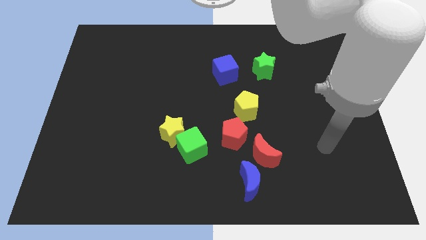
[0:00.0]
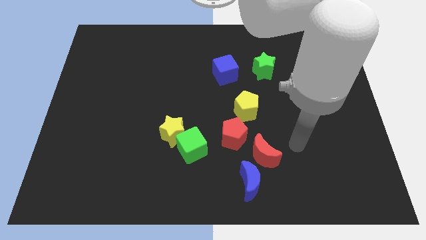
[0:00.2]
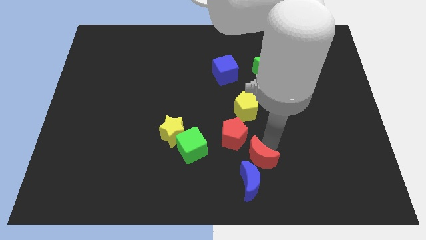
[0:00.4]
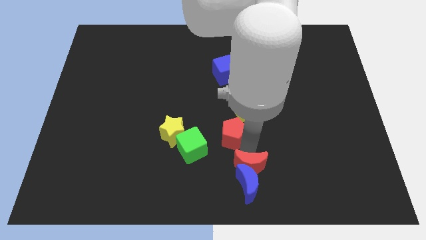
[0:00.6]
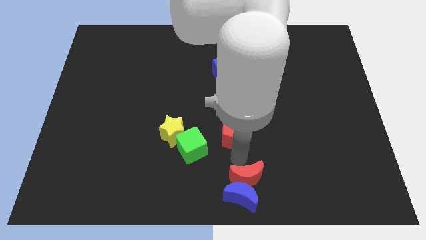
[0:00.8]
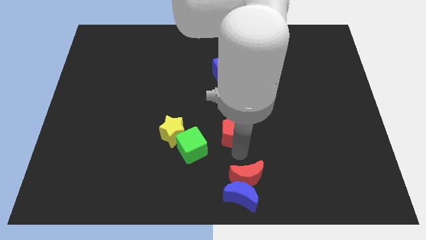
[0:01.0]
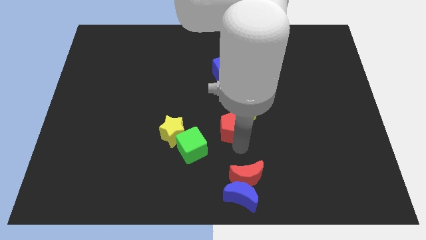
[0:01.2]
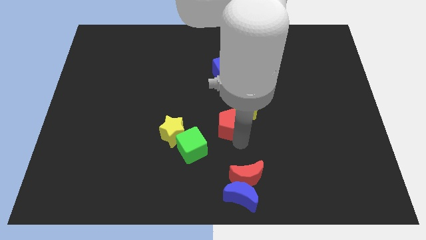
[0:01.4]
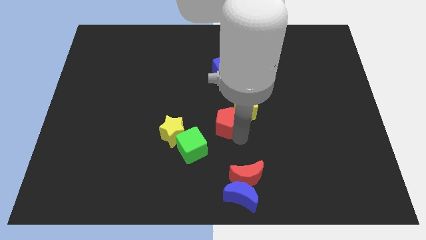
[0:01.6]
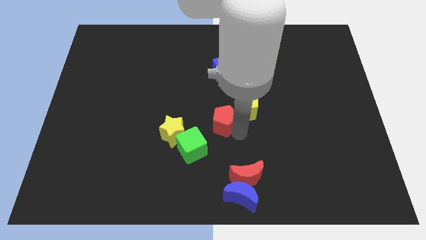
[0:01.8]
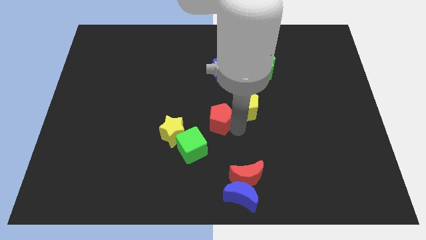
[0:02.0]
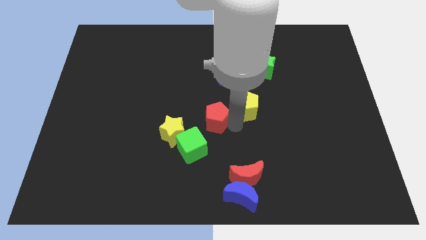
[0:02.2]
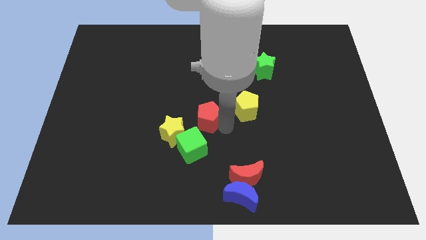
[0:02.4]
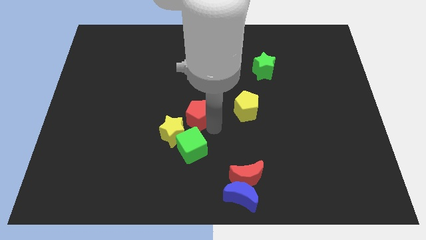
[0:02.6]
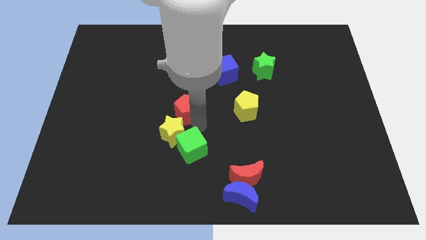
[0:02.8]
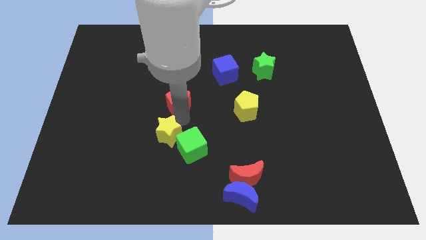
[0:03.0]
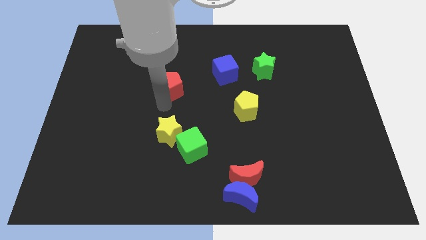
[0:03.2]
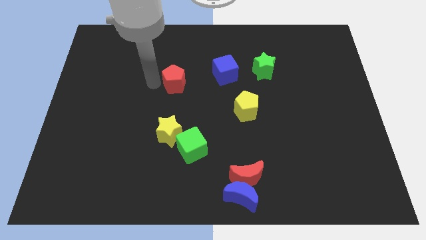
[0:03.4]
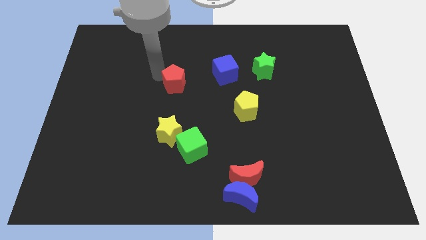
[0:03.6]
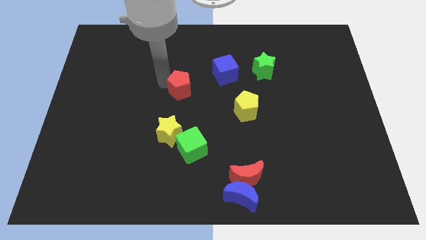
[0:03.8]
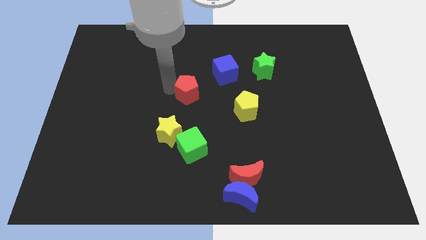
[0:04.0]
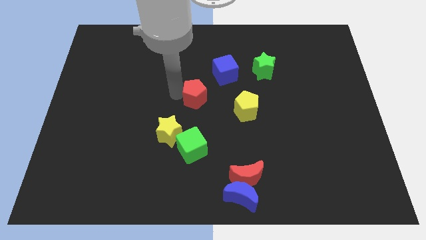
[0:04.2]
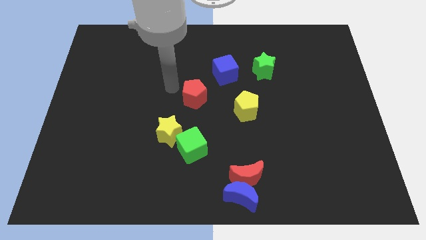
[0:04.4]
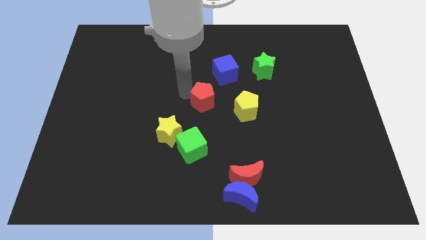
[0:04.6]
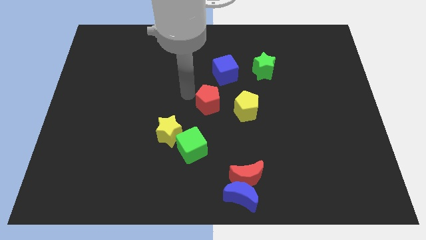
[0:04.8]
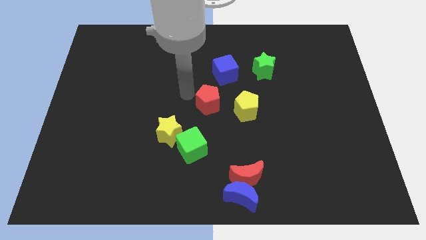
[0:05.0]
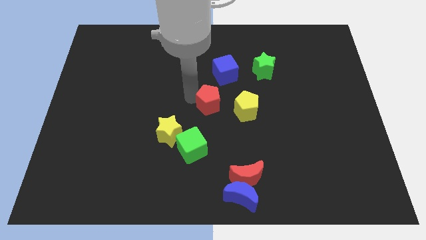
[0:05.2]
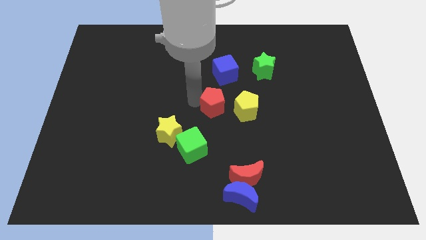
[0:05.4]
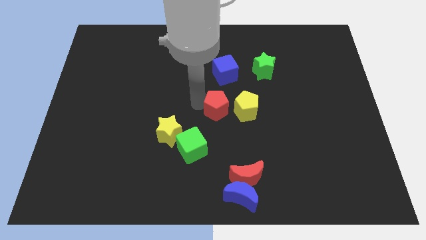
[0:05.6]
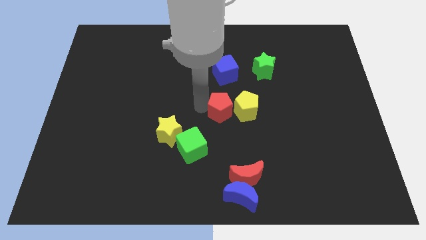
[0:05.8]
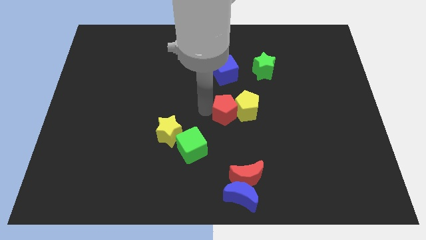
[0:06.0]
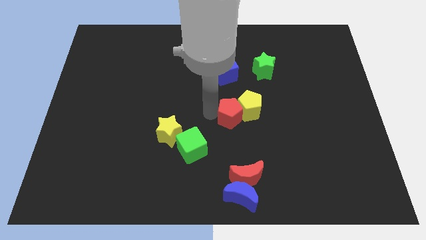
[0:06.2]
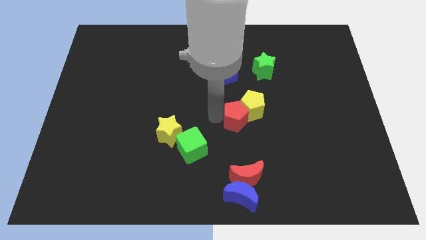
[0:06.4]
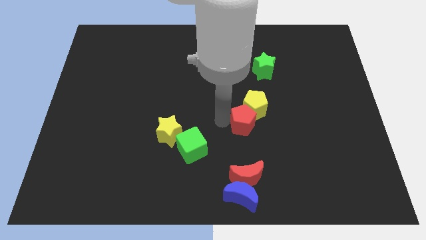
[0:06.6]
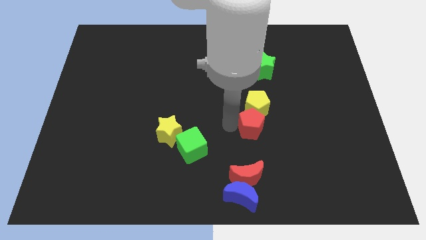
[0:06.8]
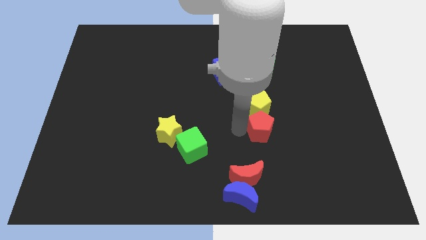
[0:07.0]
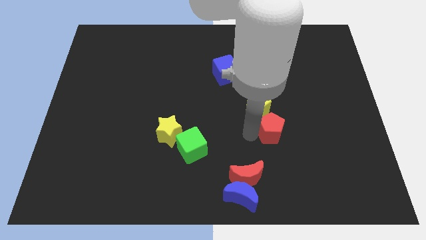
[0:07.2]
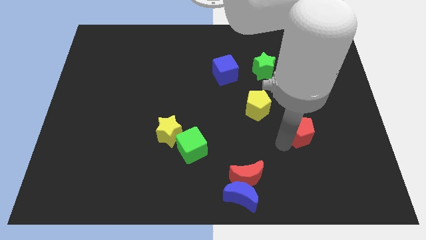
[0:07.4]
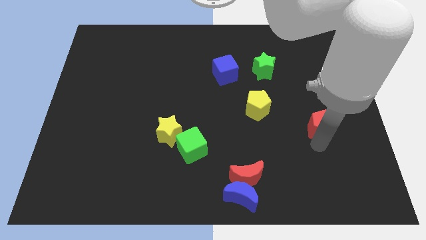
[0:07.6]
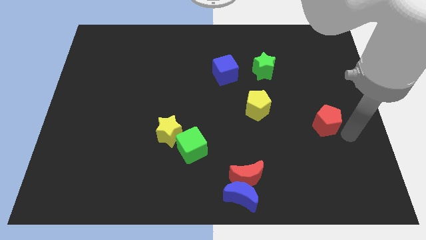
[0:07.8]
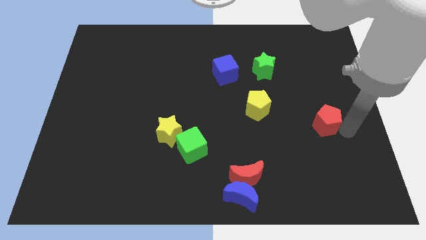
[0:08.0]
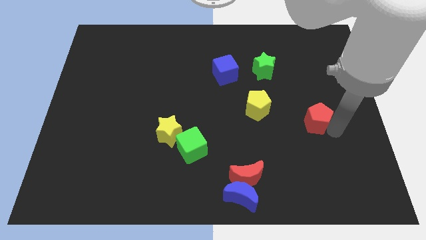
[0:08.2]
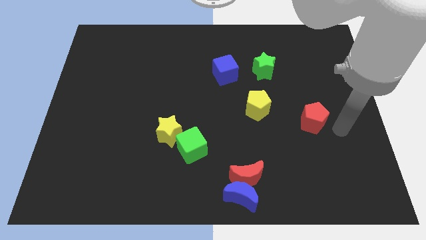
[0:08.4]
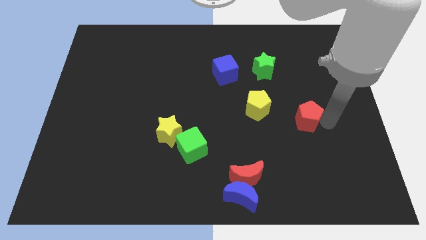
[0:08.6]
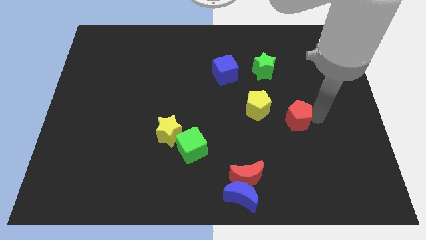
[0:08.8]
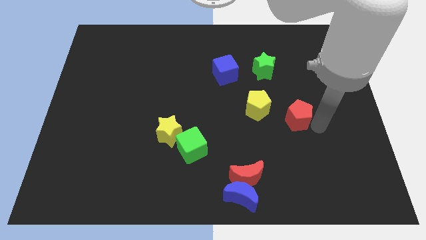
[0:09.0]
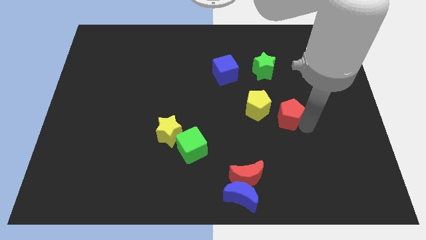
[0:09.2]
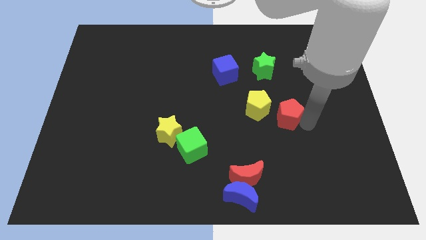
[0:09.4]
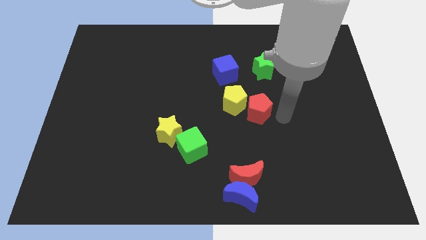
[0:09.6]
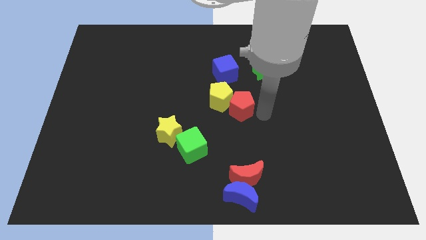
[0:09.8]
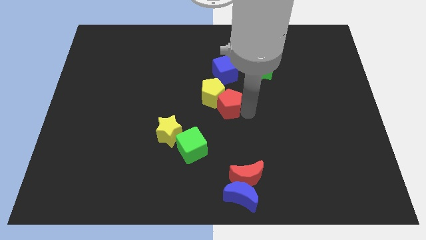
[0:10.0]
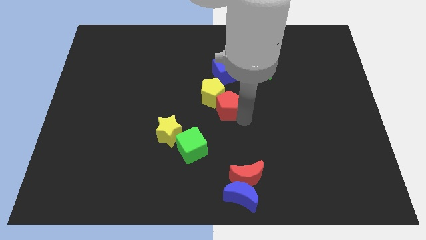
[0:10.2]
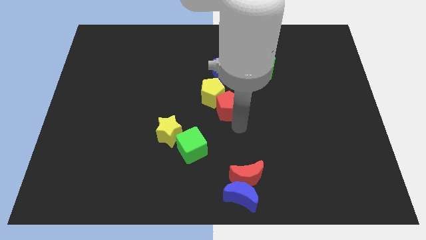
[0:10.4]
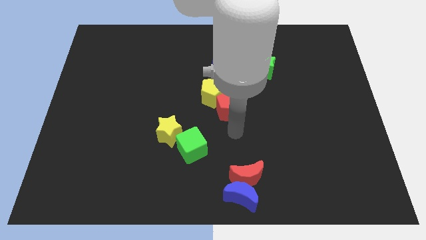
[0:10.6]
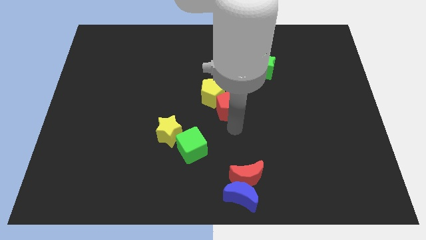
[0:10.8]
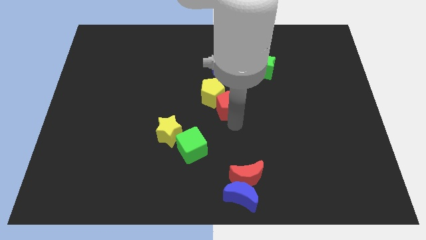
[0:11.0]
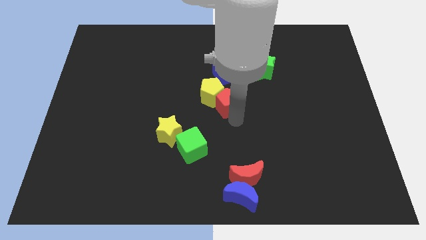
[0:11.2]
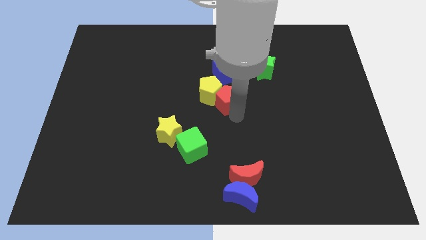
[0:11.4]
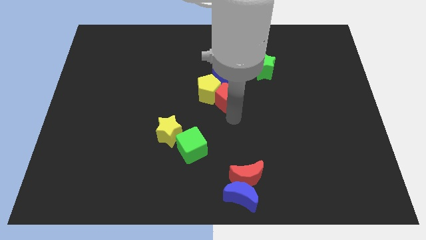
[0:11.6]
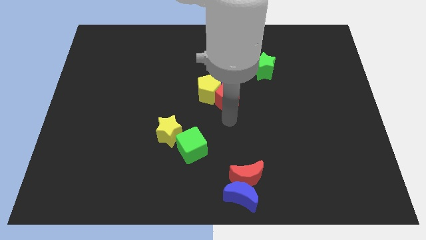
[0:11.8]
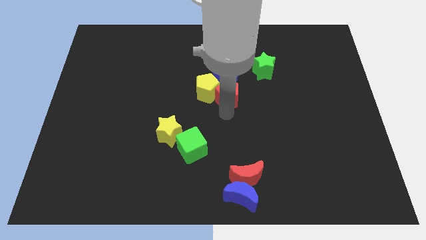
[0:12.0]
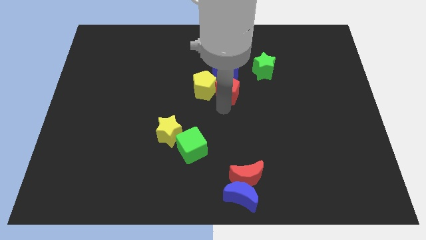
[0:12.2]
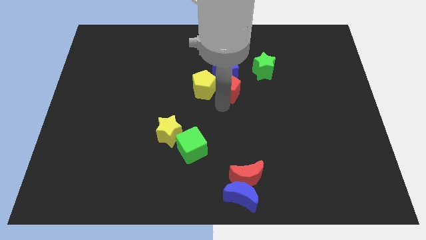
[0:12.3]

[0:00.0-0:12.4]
slide the red pentagon next to the blue cube

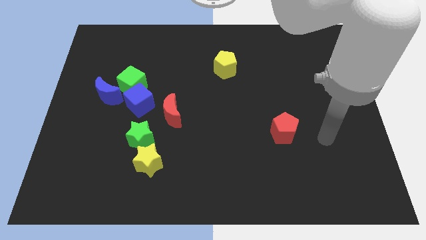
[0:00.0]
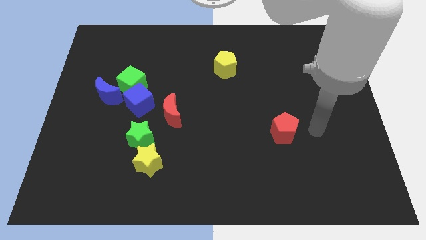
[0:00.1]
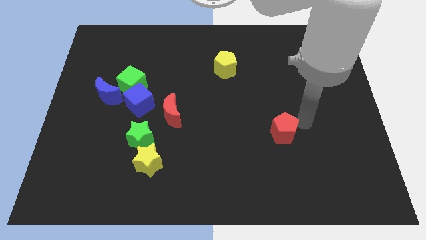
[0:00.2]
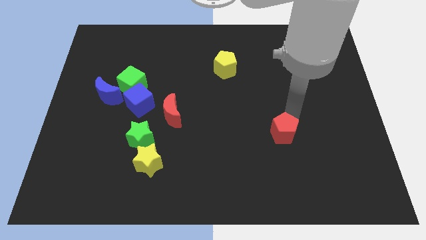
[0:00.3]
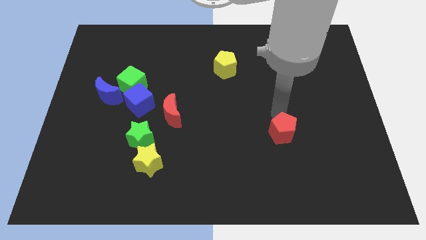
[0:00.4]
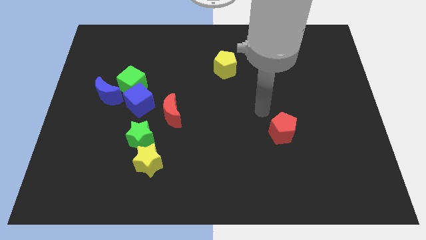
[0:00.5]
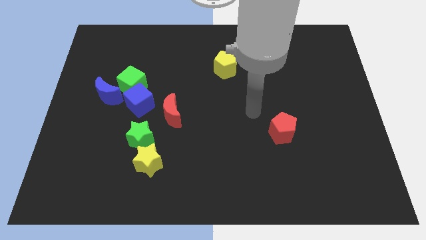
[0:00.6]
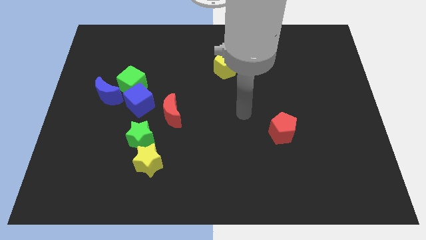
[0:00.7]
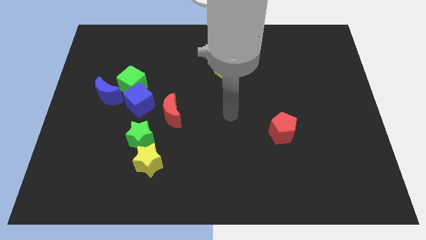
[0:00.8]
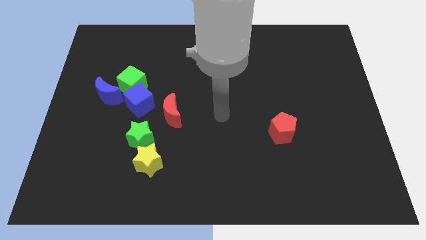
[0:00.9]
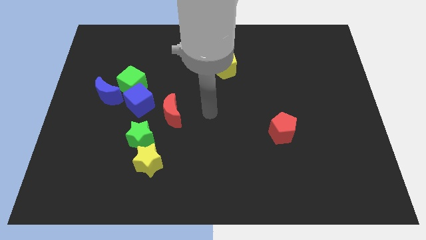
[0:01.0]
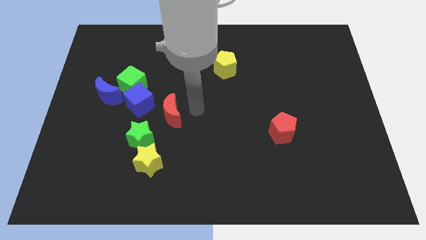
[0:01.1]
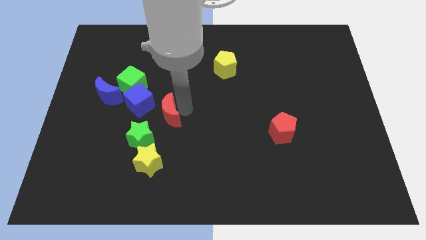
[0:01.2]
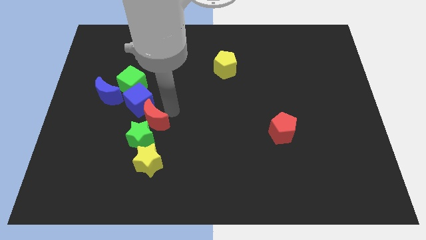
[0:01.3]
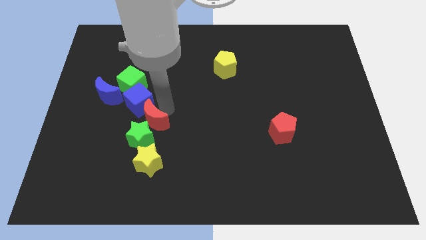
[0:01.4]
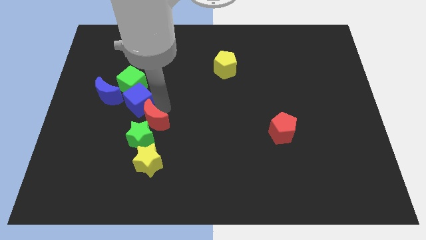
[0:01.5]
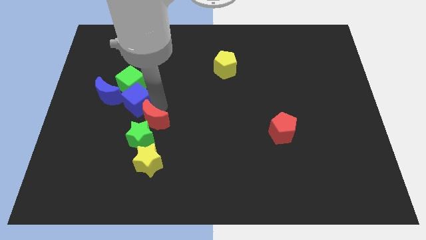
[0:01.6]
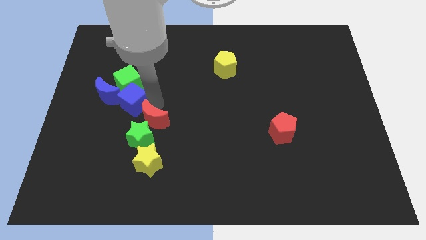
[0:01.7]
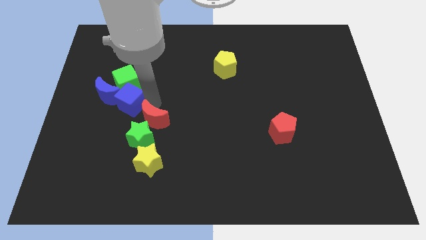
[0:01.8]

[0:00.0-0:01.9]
push the blue cube towards the blue moon
